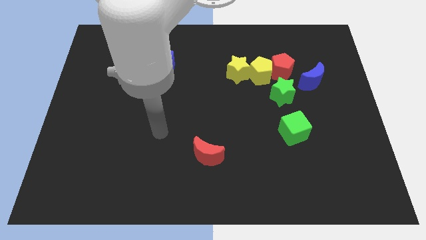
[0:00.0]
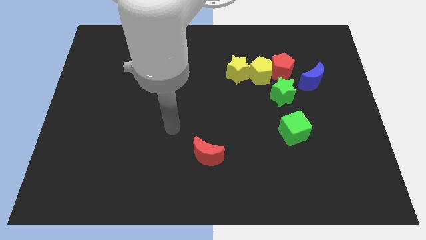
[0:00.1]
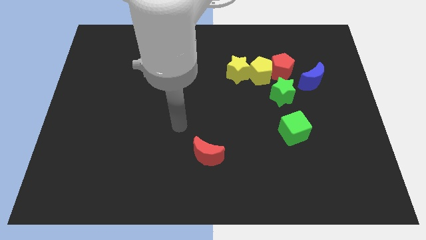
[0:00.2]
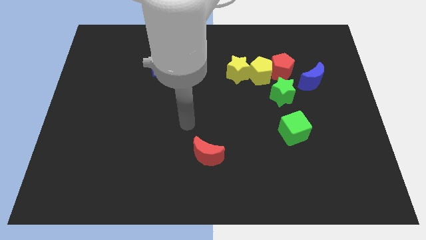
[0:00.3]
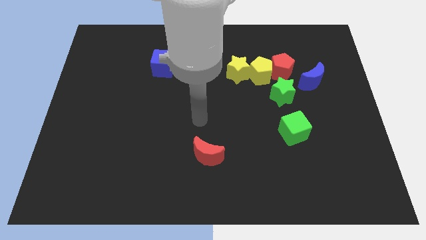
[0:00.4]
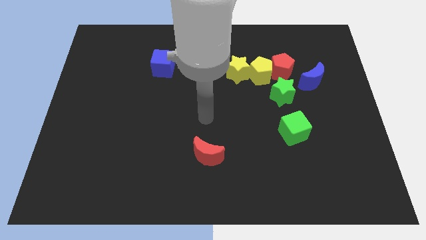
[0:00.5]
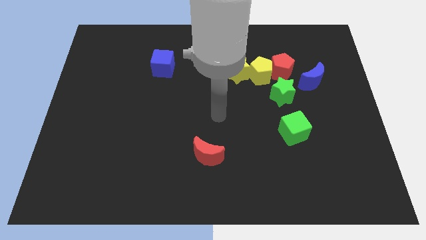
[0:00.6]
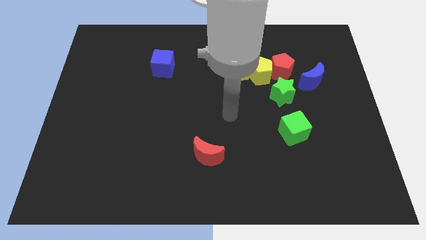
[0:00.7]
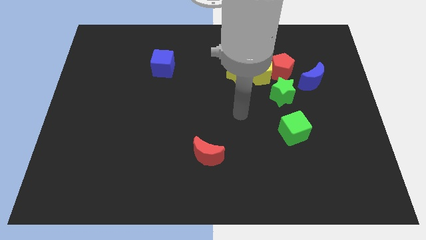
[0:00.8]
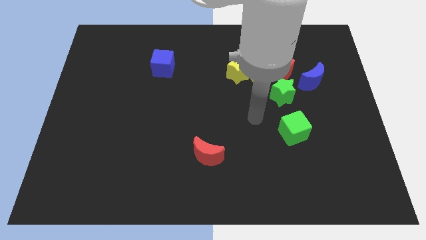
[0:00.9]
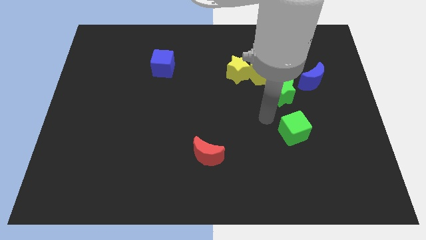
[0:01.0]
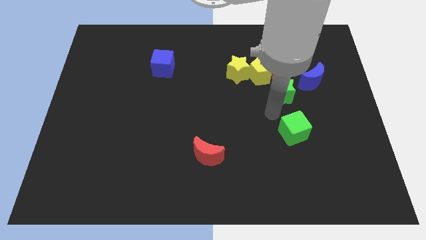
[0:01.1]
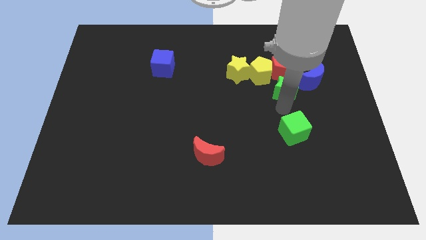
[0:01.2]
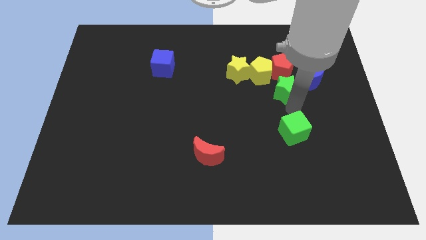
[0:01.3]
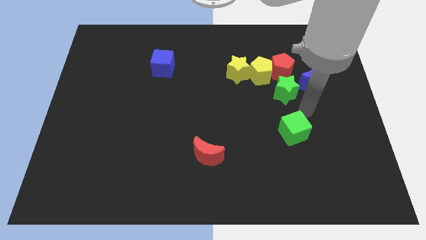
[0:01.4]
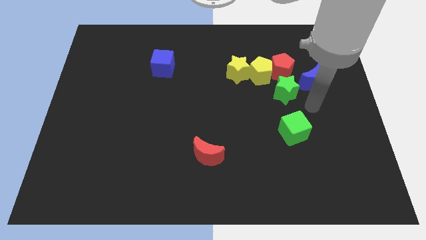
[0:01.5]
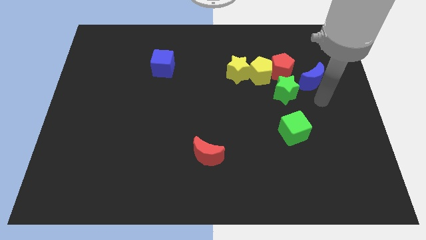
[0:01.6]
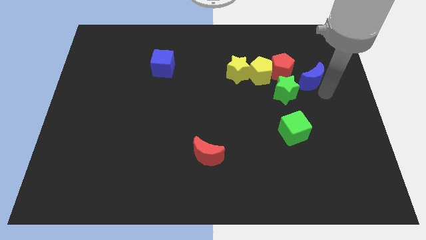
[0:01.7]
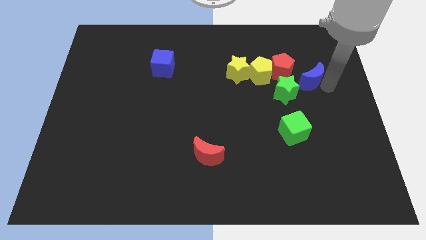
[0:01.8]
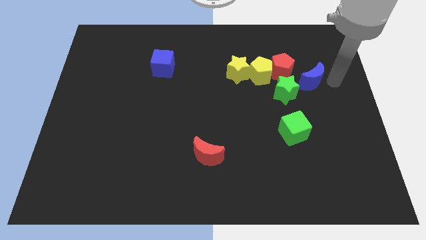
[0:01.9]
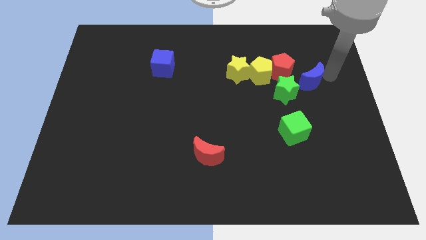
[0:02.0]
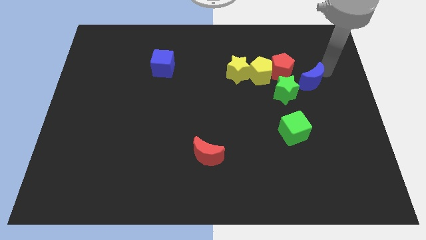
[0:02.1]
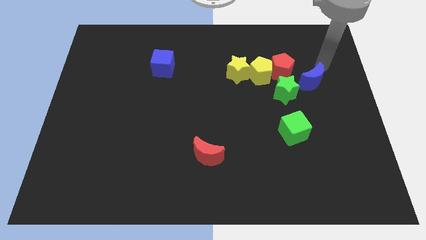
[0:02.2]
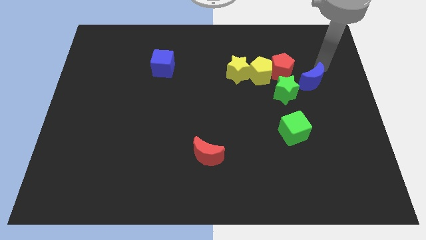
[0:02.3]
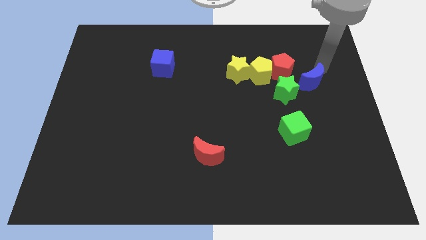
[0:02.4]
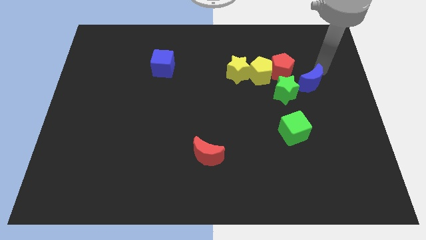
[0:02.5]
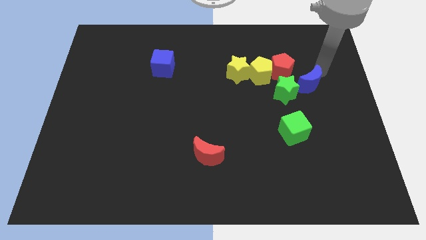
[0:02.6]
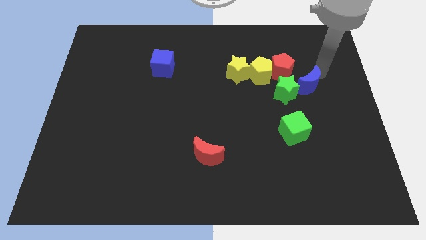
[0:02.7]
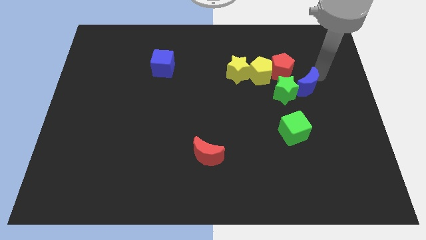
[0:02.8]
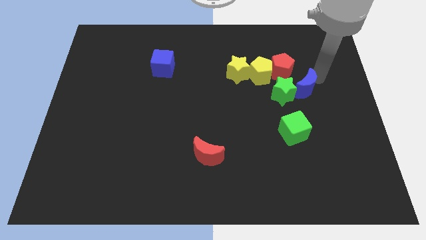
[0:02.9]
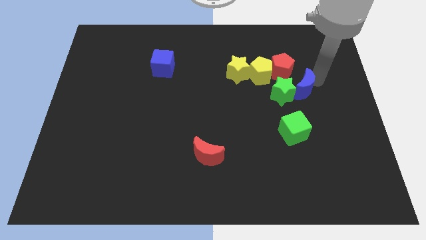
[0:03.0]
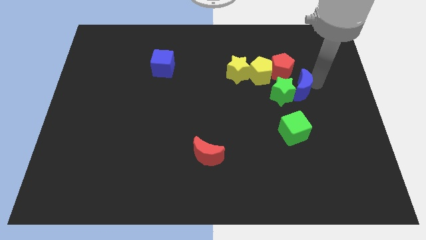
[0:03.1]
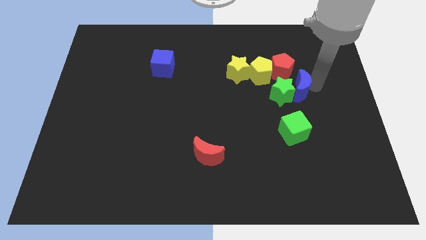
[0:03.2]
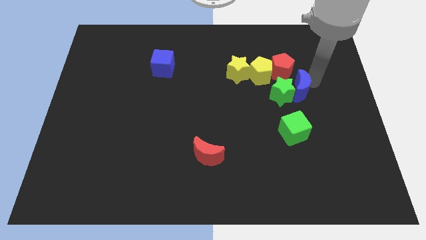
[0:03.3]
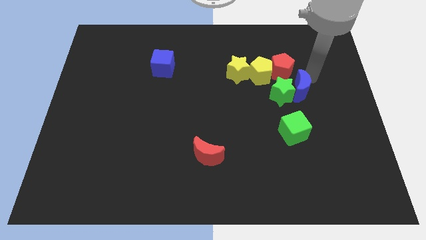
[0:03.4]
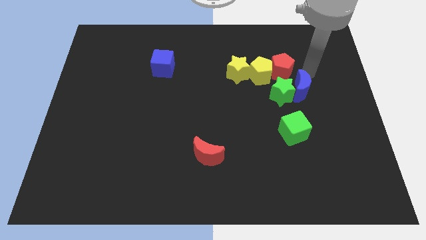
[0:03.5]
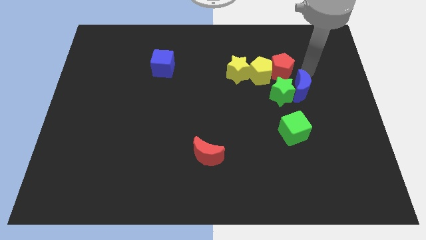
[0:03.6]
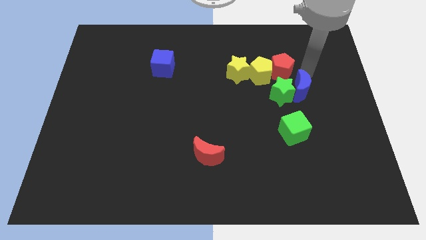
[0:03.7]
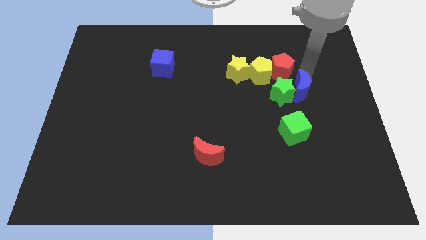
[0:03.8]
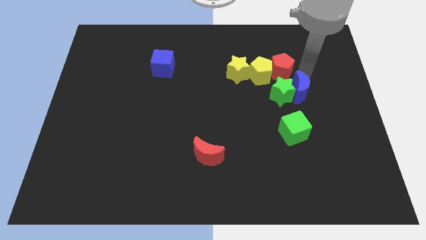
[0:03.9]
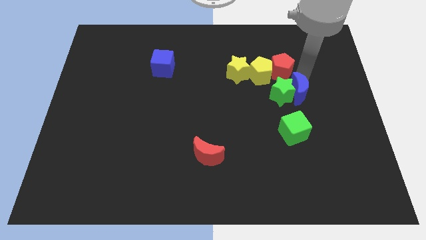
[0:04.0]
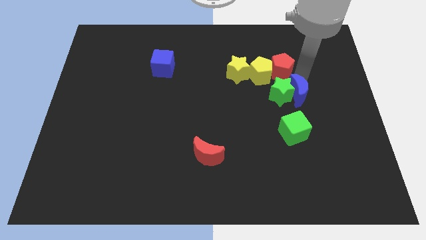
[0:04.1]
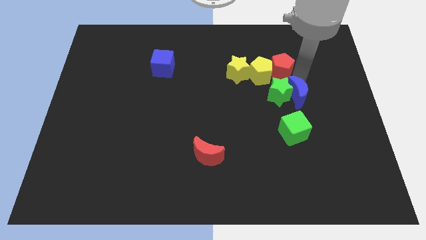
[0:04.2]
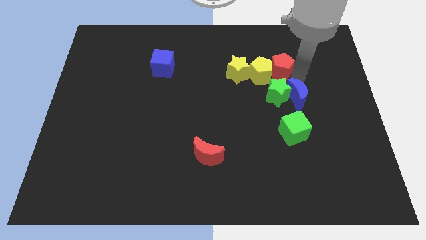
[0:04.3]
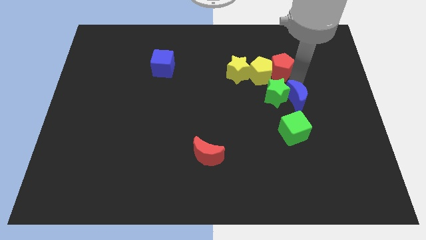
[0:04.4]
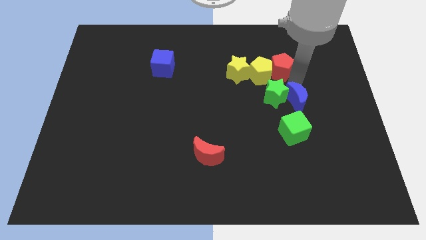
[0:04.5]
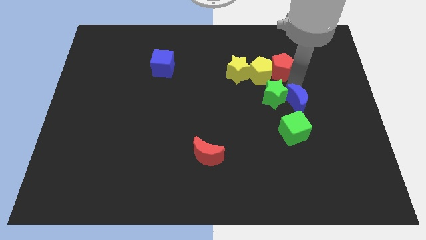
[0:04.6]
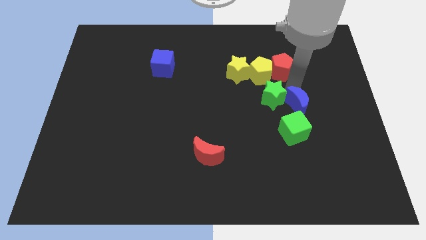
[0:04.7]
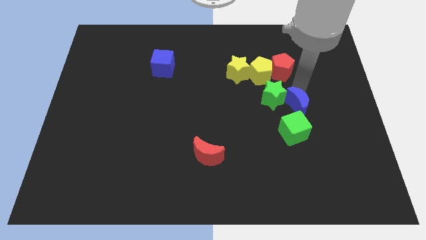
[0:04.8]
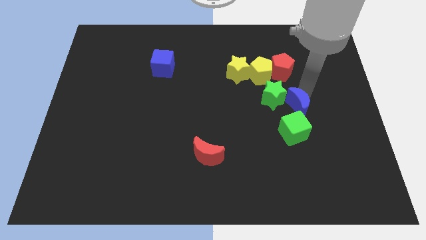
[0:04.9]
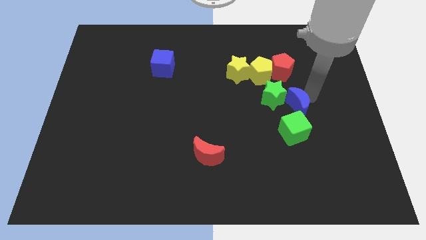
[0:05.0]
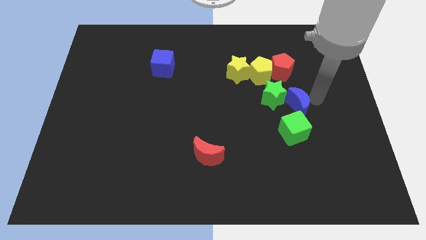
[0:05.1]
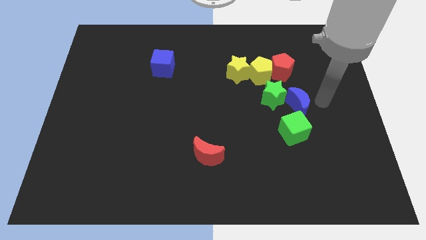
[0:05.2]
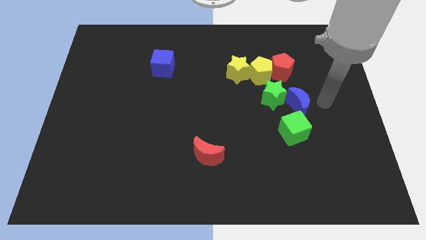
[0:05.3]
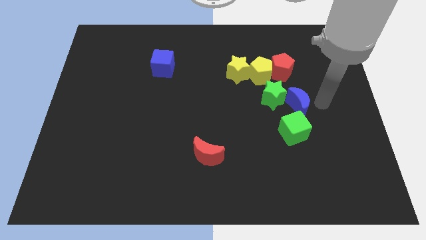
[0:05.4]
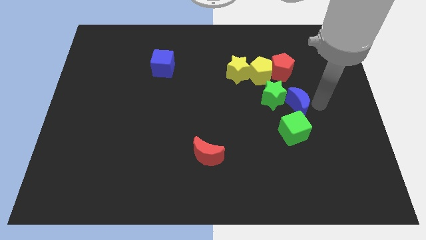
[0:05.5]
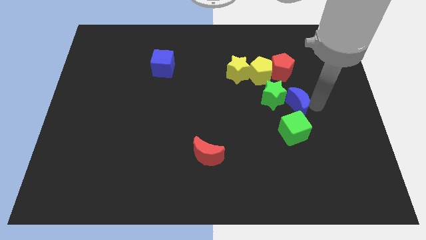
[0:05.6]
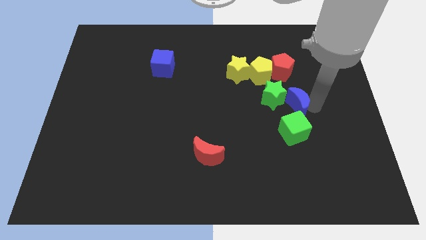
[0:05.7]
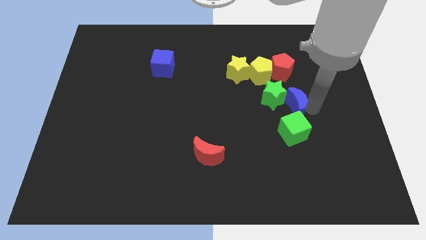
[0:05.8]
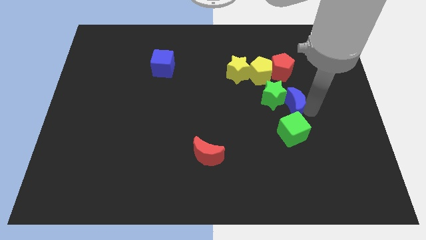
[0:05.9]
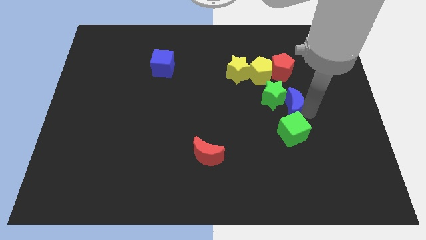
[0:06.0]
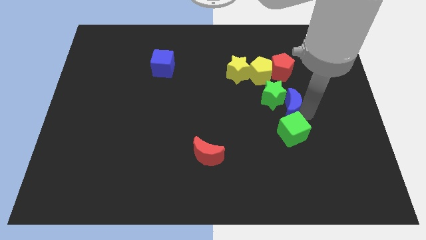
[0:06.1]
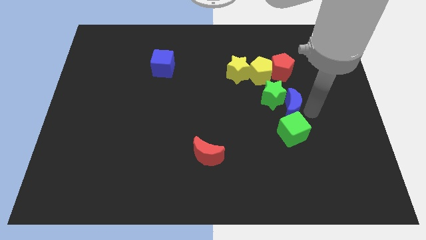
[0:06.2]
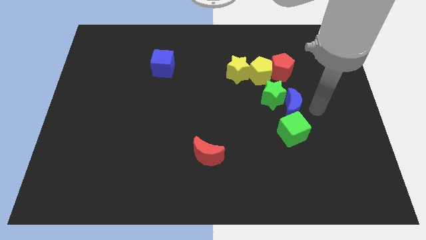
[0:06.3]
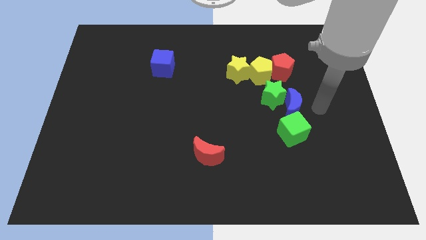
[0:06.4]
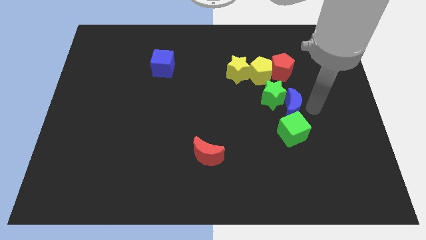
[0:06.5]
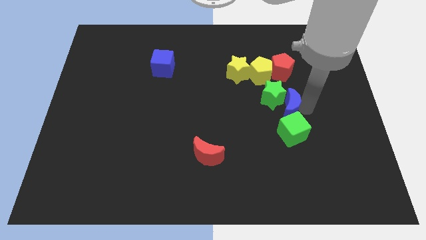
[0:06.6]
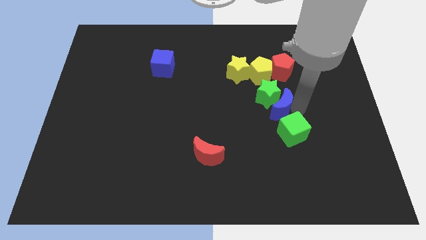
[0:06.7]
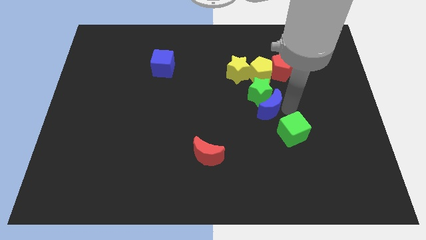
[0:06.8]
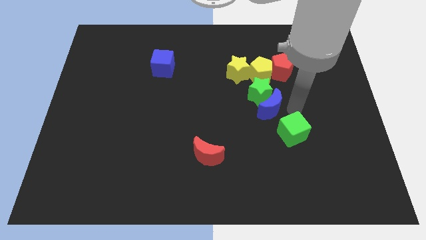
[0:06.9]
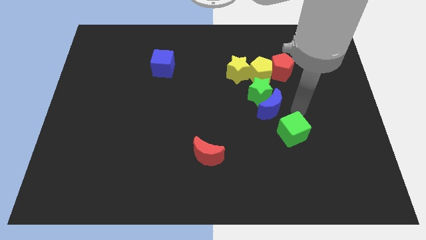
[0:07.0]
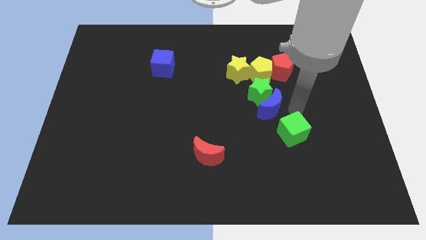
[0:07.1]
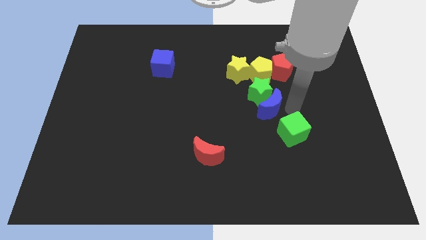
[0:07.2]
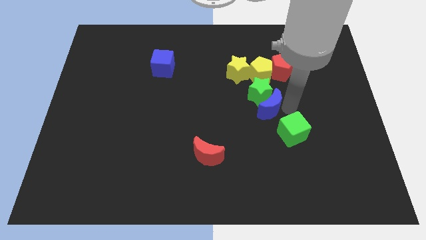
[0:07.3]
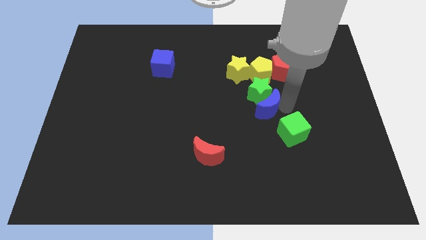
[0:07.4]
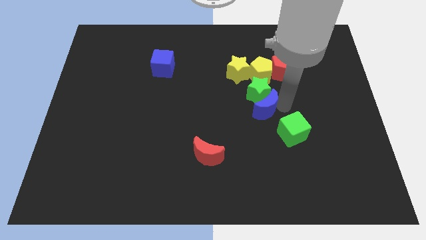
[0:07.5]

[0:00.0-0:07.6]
slide the blue moon to the center
